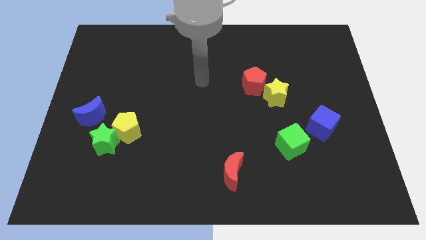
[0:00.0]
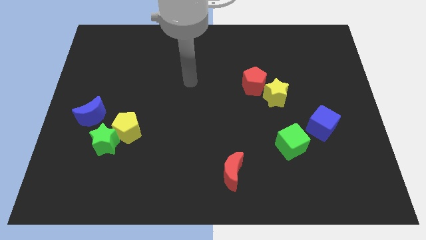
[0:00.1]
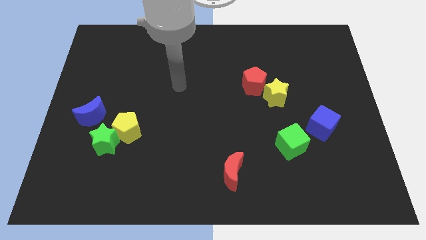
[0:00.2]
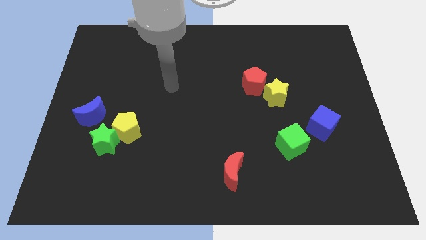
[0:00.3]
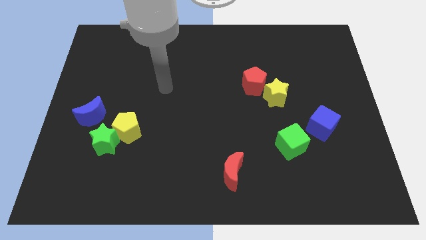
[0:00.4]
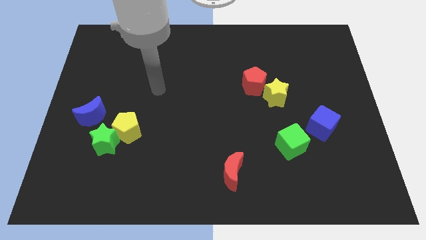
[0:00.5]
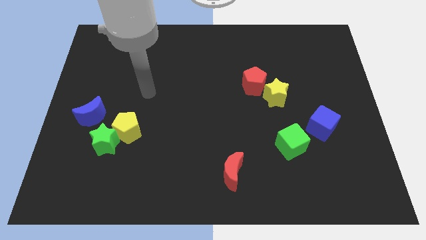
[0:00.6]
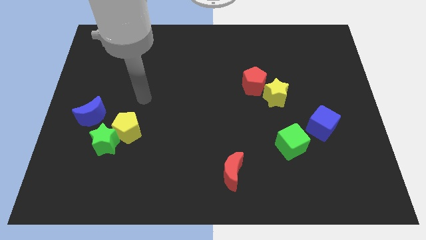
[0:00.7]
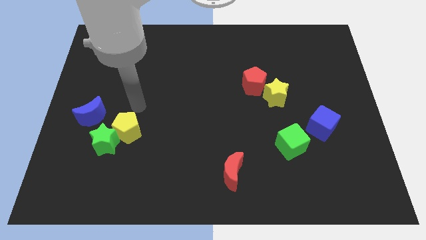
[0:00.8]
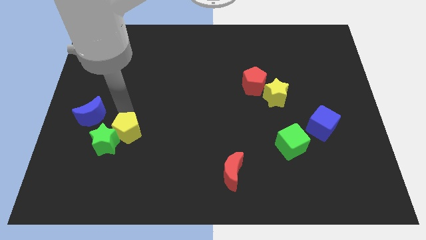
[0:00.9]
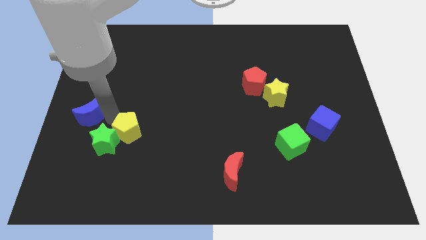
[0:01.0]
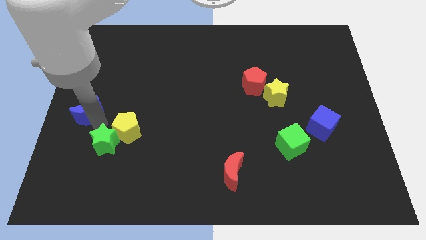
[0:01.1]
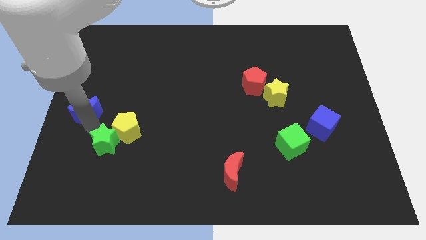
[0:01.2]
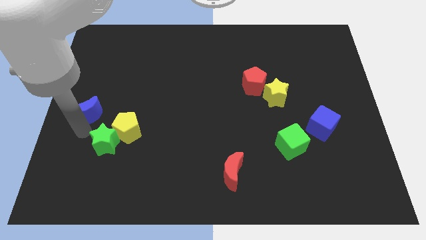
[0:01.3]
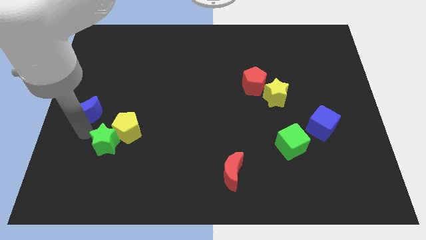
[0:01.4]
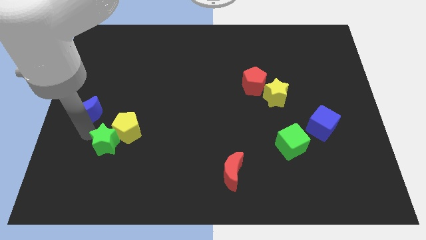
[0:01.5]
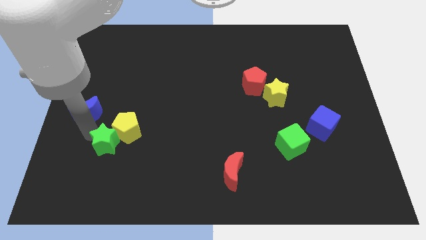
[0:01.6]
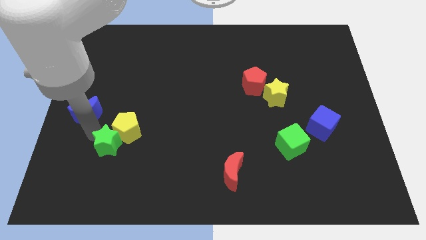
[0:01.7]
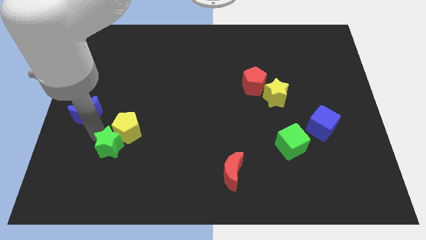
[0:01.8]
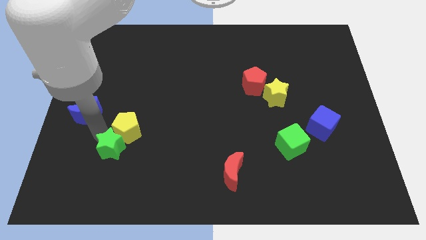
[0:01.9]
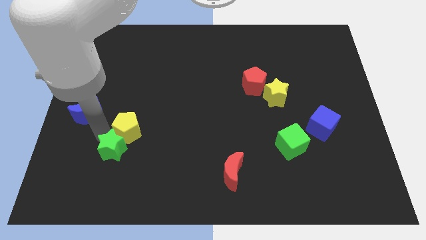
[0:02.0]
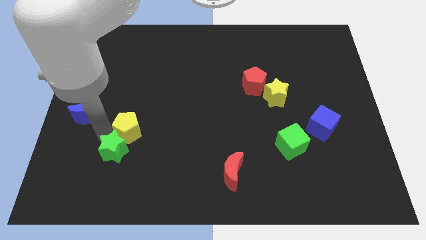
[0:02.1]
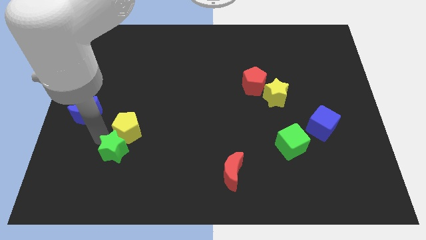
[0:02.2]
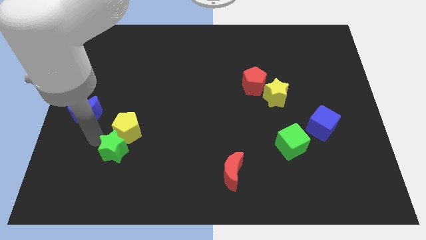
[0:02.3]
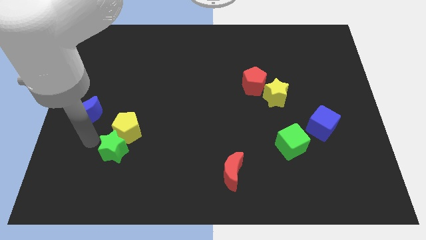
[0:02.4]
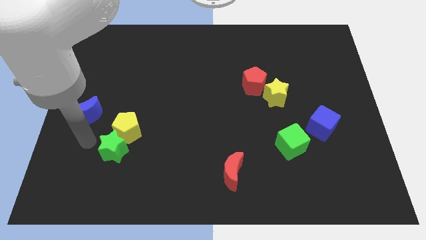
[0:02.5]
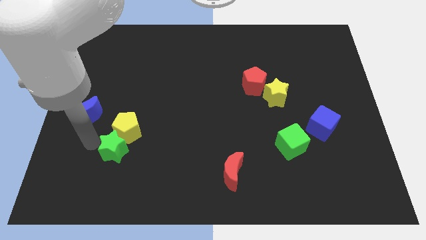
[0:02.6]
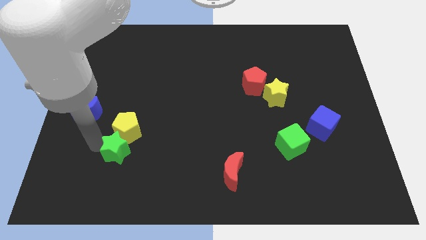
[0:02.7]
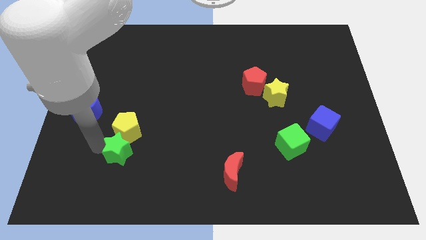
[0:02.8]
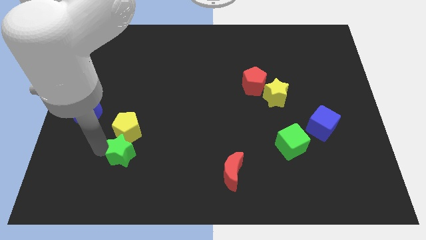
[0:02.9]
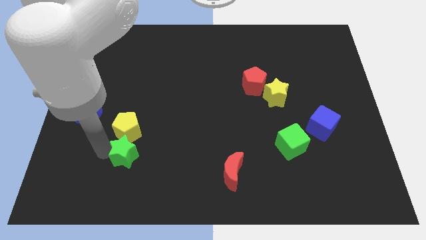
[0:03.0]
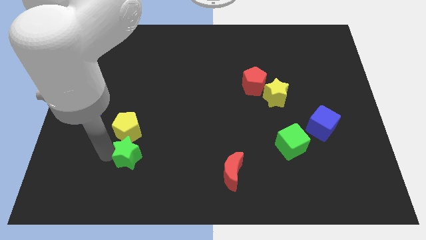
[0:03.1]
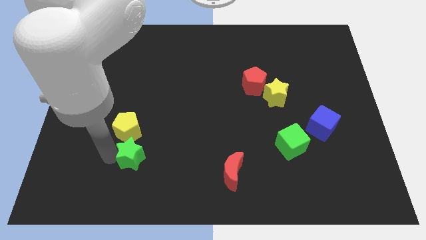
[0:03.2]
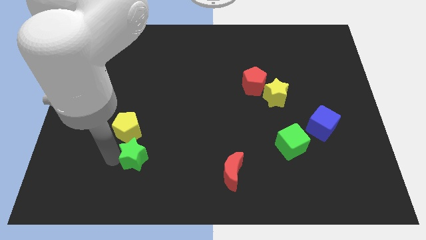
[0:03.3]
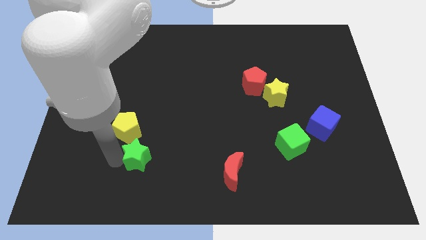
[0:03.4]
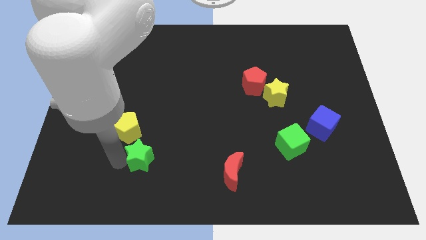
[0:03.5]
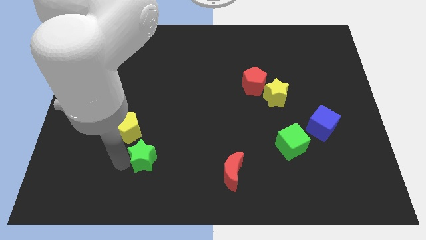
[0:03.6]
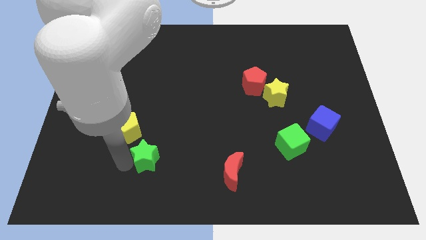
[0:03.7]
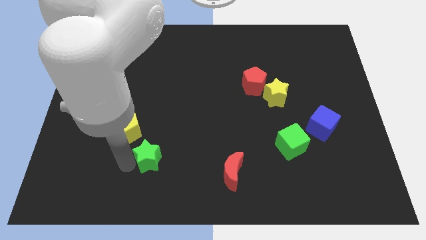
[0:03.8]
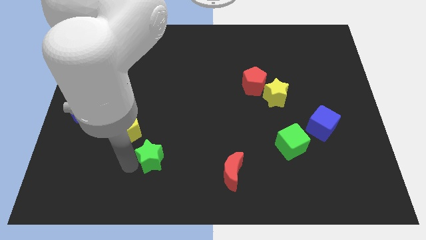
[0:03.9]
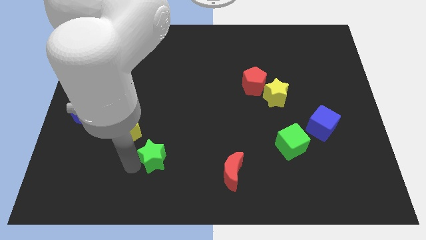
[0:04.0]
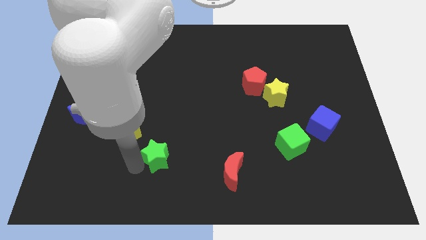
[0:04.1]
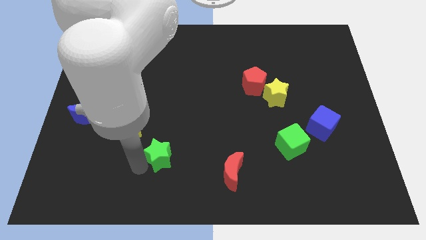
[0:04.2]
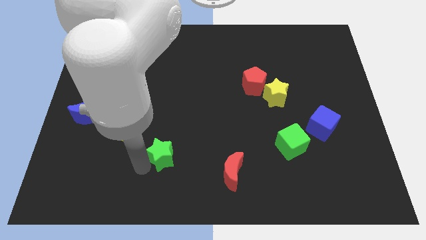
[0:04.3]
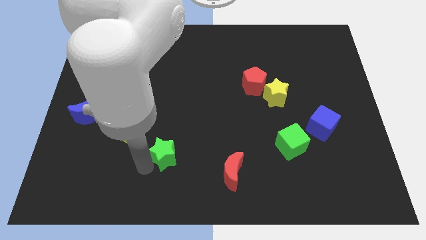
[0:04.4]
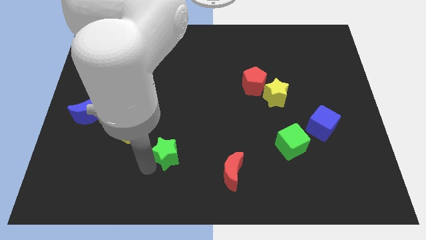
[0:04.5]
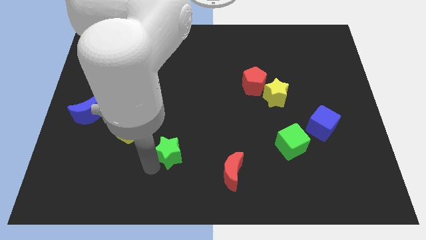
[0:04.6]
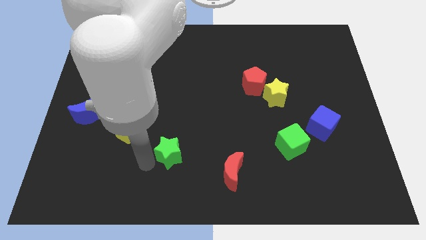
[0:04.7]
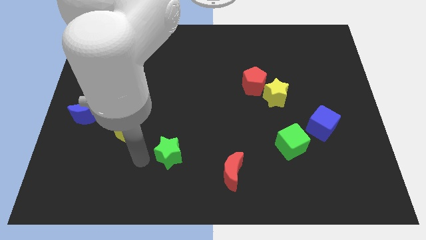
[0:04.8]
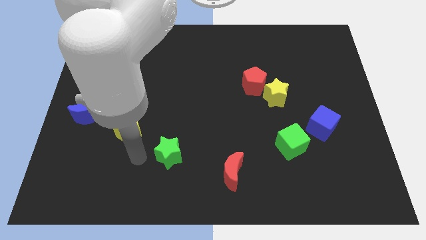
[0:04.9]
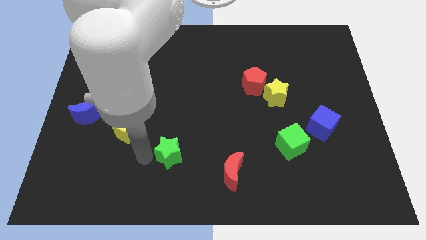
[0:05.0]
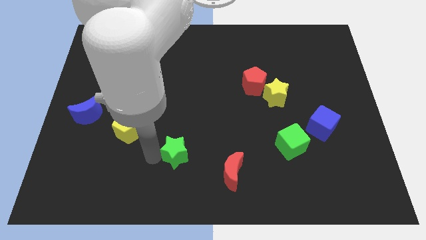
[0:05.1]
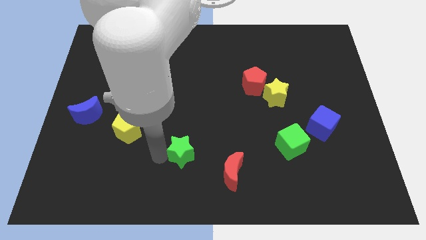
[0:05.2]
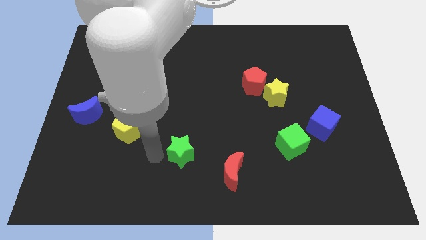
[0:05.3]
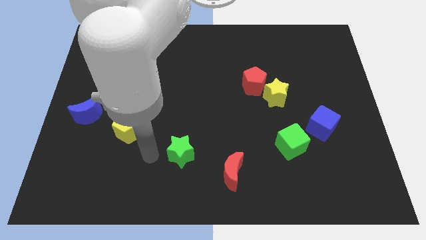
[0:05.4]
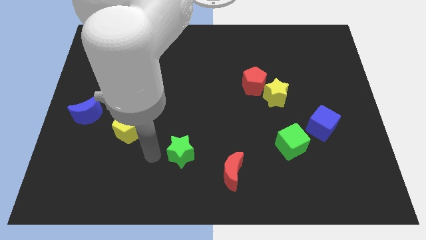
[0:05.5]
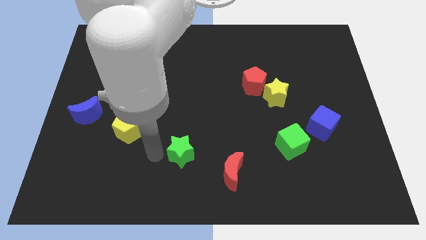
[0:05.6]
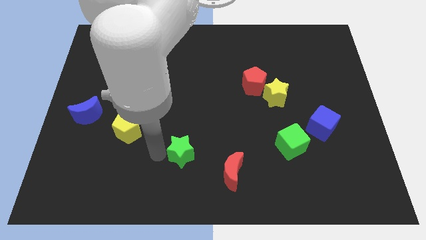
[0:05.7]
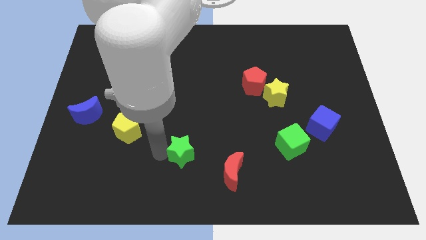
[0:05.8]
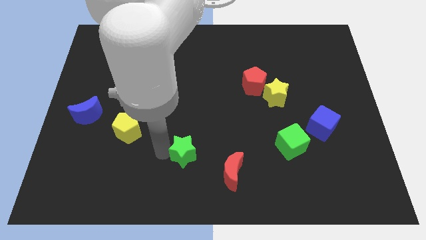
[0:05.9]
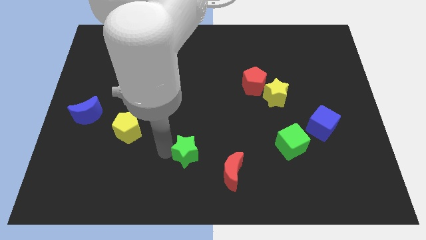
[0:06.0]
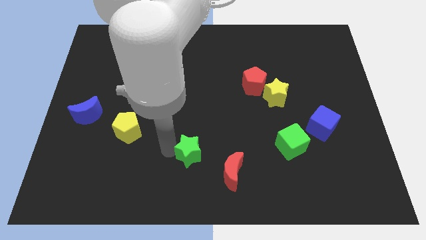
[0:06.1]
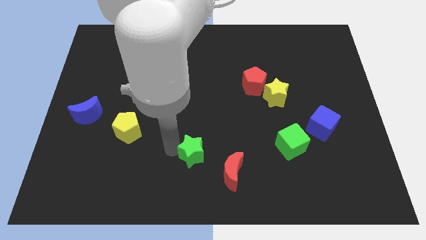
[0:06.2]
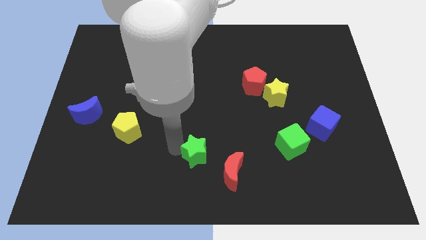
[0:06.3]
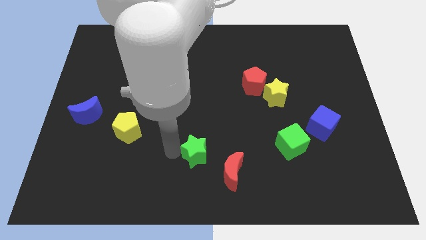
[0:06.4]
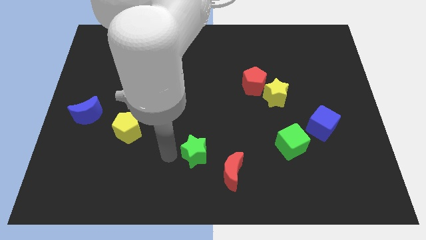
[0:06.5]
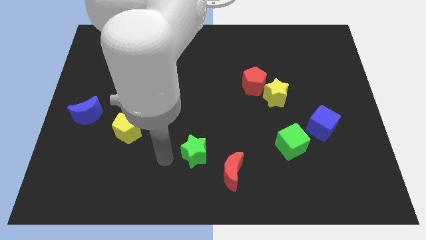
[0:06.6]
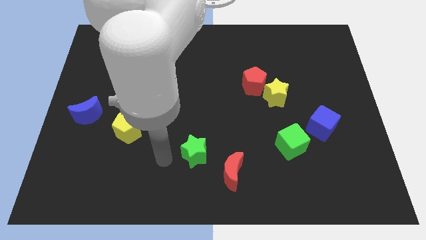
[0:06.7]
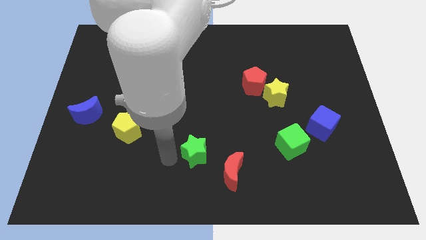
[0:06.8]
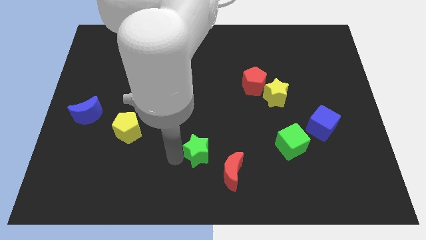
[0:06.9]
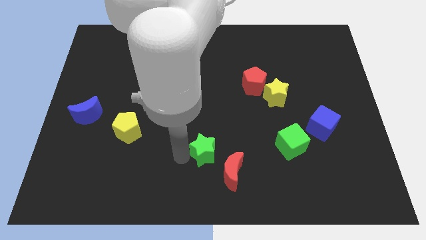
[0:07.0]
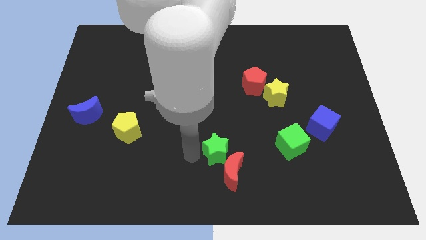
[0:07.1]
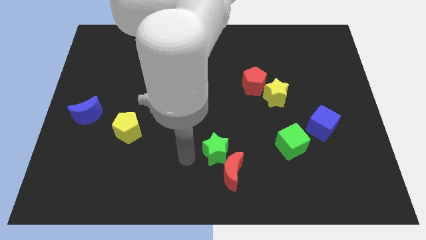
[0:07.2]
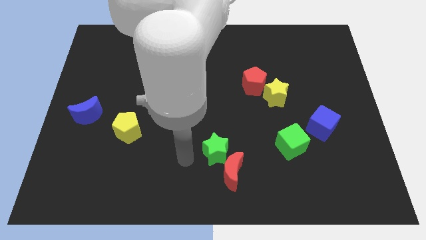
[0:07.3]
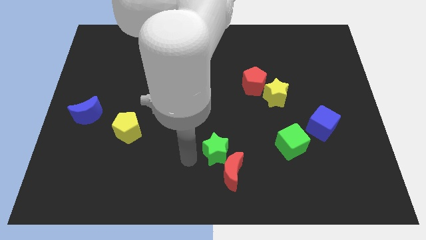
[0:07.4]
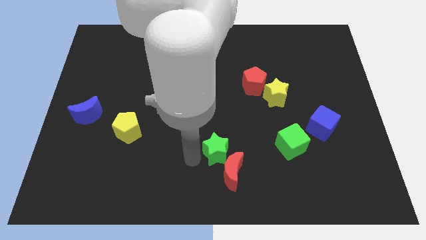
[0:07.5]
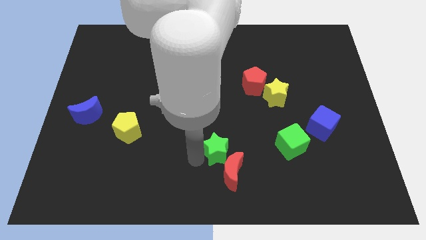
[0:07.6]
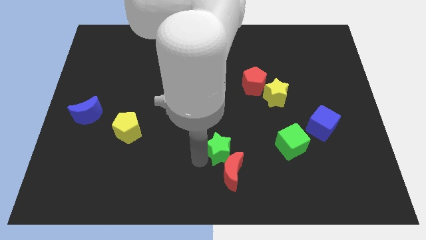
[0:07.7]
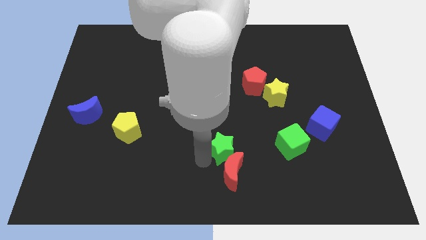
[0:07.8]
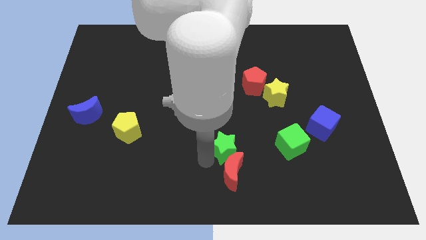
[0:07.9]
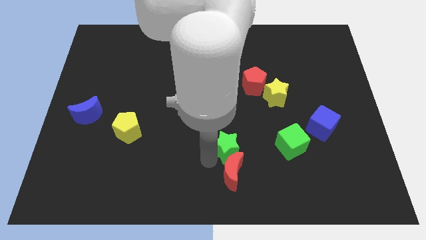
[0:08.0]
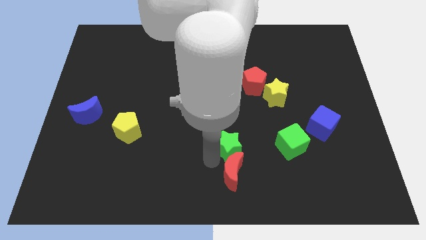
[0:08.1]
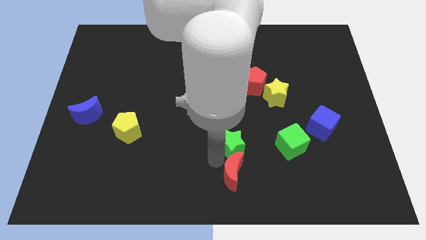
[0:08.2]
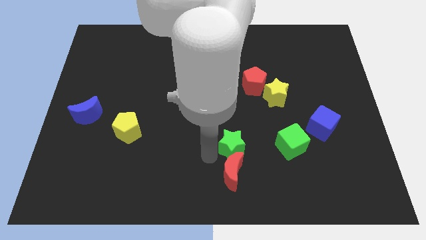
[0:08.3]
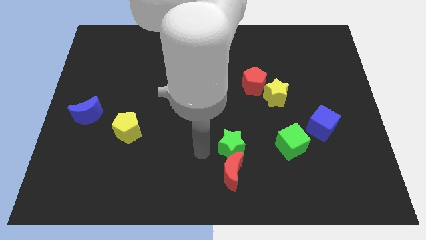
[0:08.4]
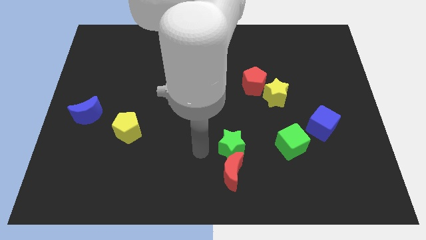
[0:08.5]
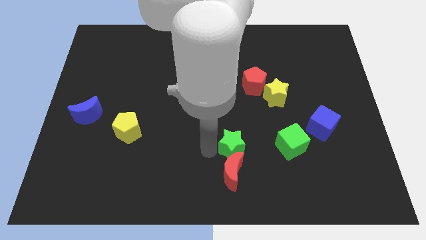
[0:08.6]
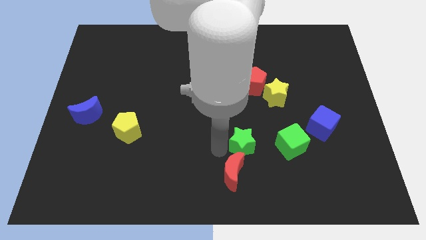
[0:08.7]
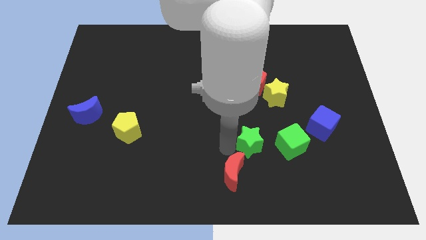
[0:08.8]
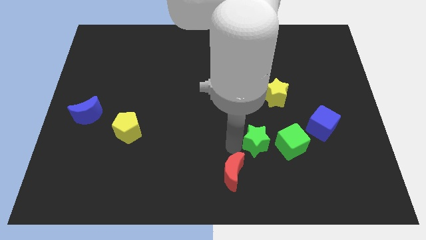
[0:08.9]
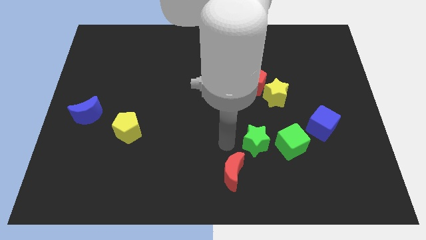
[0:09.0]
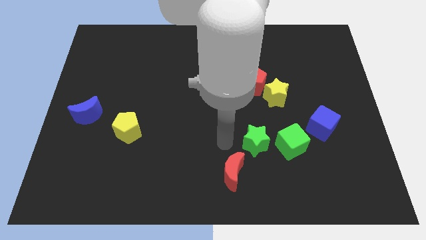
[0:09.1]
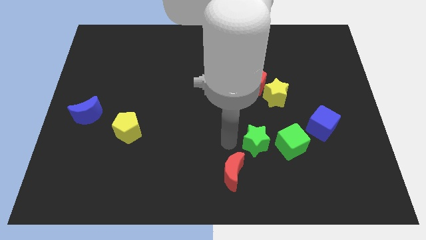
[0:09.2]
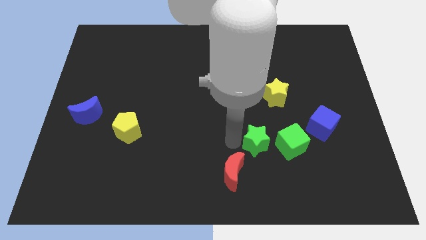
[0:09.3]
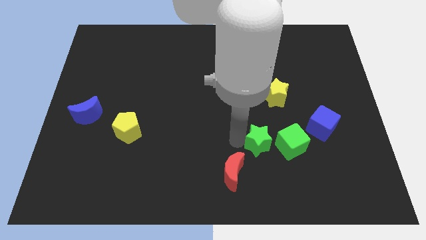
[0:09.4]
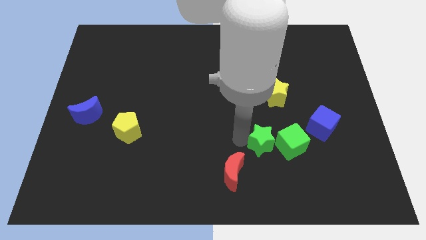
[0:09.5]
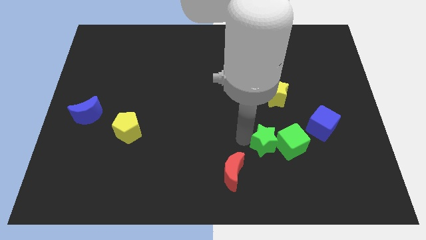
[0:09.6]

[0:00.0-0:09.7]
put the green star close to the green cube
